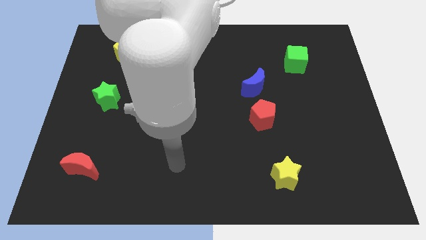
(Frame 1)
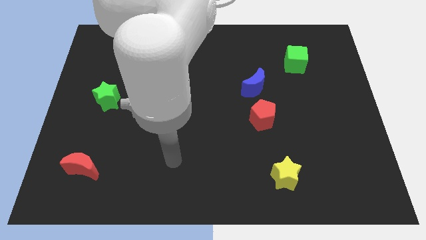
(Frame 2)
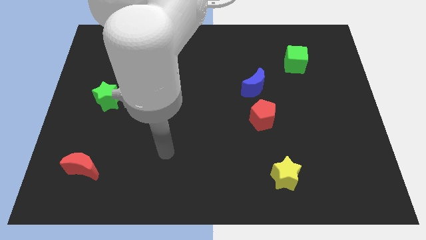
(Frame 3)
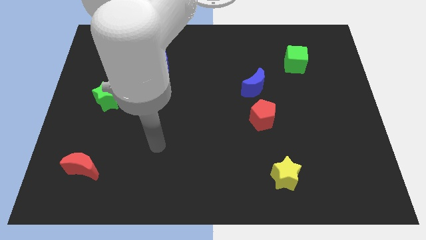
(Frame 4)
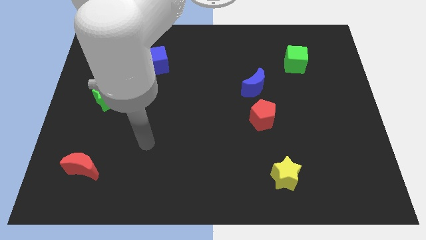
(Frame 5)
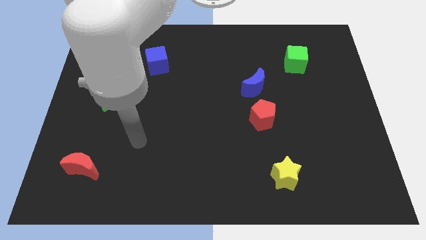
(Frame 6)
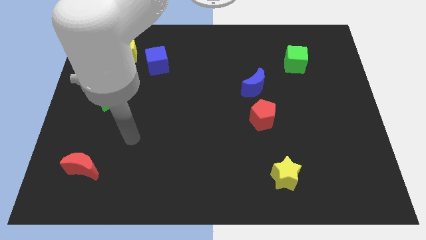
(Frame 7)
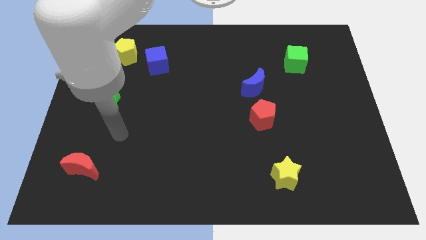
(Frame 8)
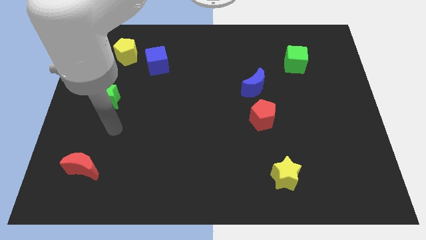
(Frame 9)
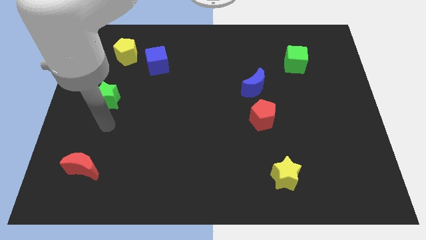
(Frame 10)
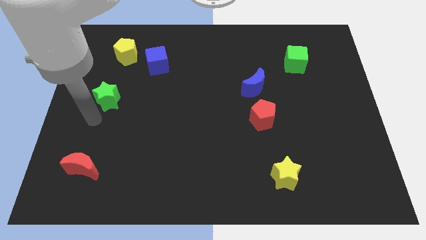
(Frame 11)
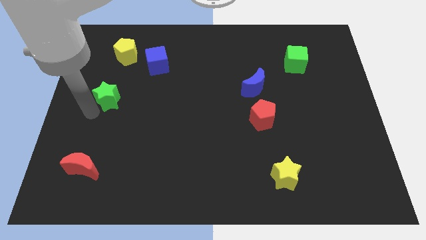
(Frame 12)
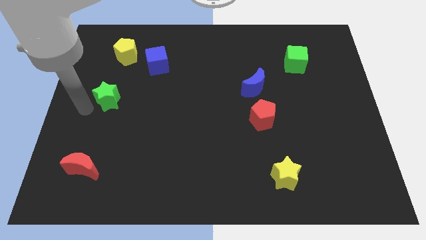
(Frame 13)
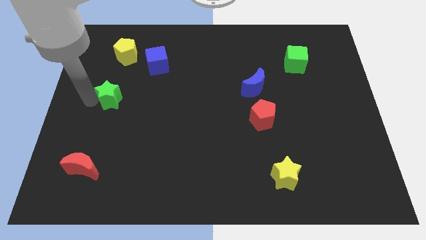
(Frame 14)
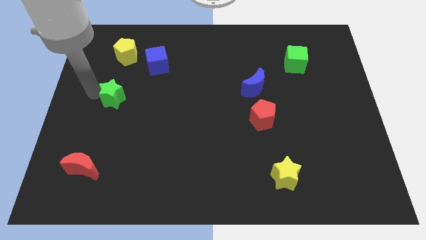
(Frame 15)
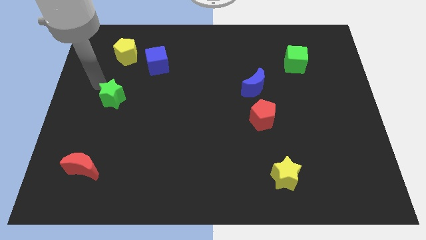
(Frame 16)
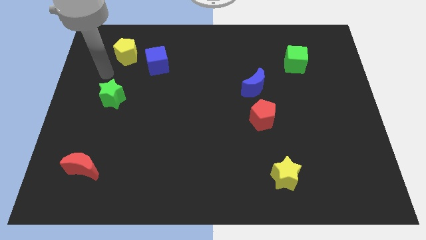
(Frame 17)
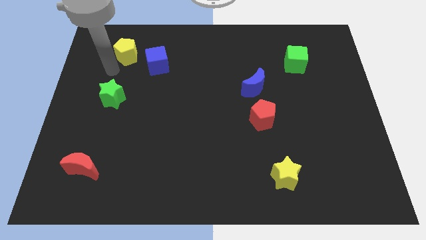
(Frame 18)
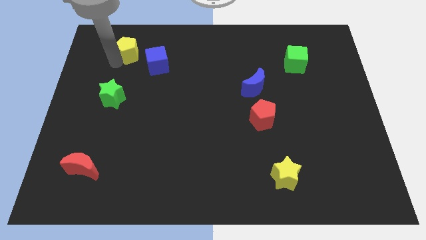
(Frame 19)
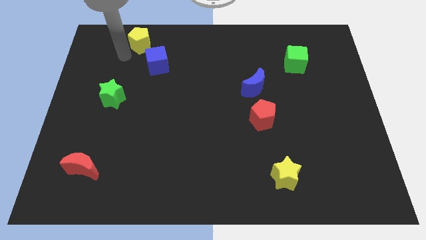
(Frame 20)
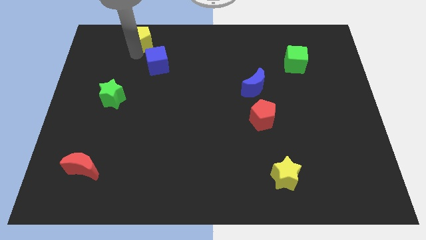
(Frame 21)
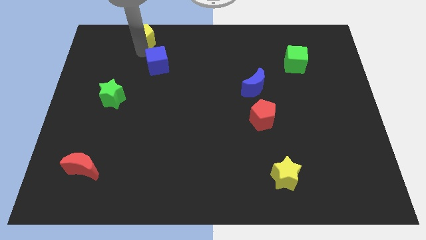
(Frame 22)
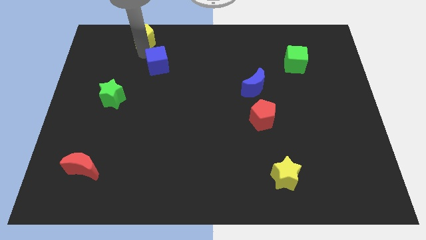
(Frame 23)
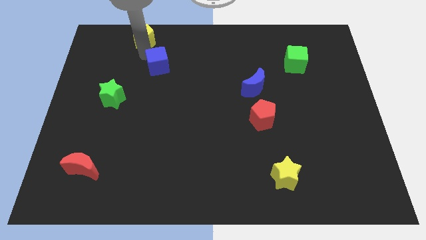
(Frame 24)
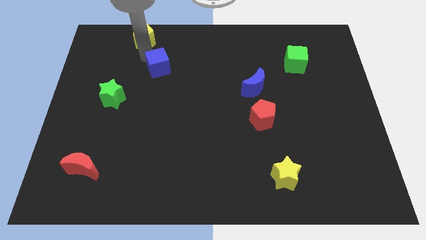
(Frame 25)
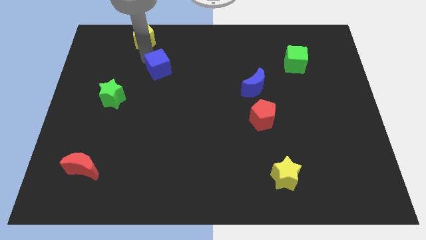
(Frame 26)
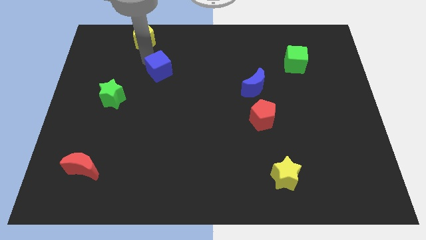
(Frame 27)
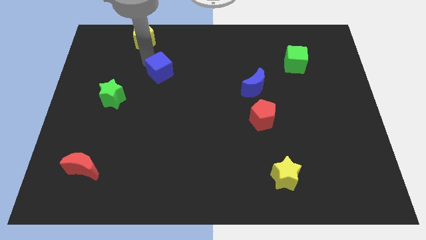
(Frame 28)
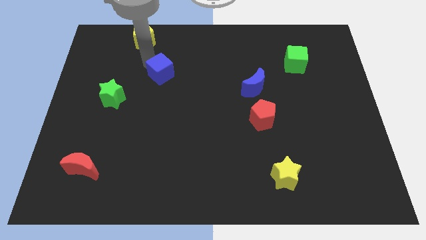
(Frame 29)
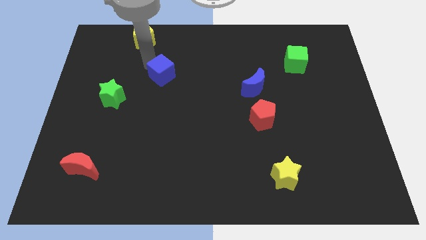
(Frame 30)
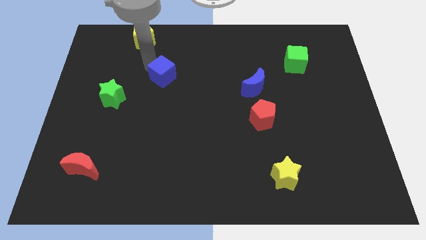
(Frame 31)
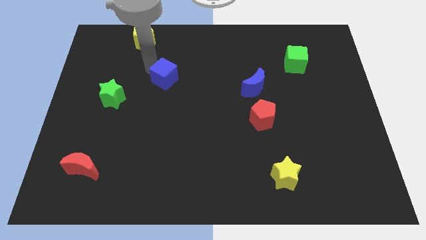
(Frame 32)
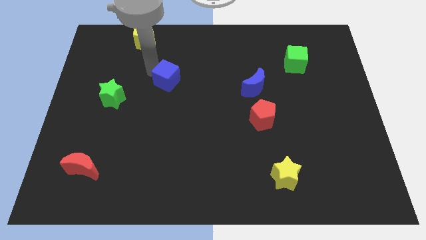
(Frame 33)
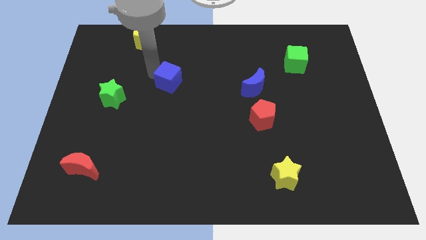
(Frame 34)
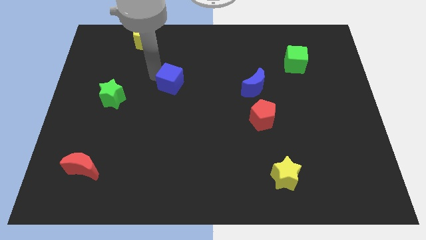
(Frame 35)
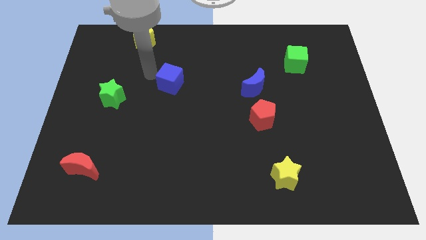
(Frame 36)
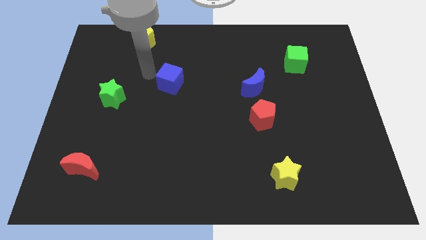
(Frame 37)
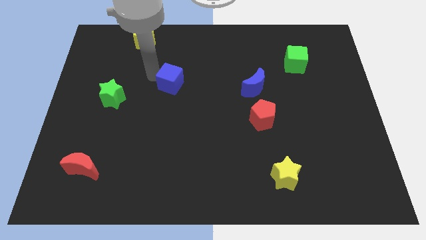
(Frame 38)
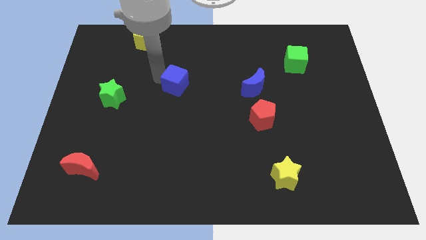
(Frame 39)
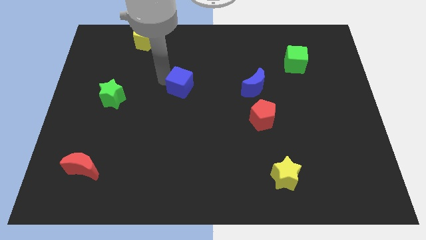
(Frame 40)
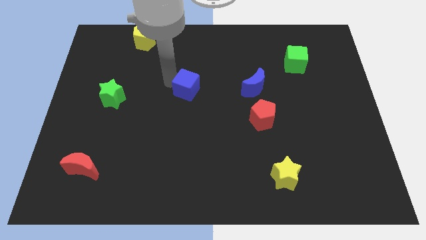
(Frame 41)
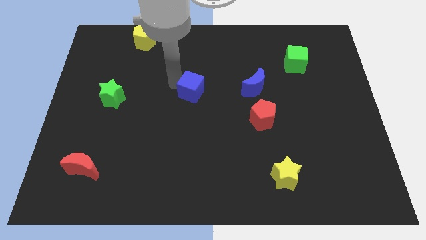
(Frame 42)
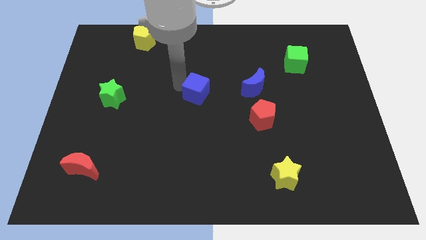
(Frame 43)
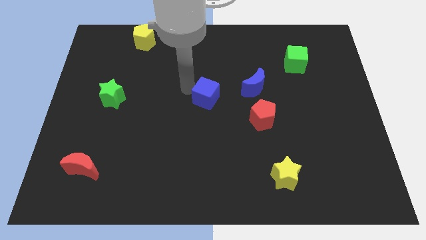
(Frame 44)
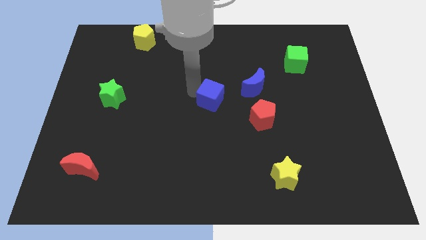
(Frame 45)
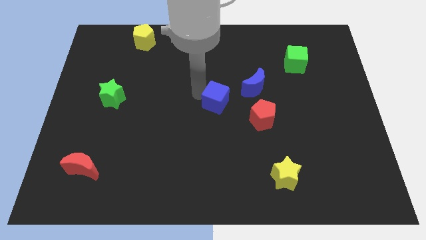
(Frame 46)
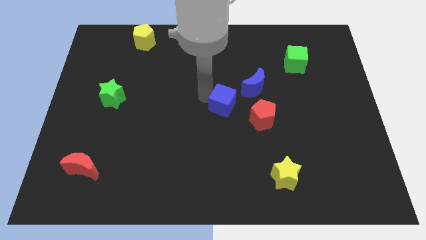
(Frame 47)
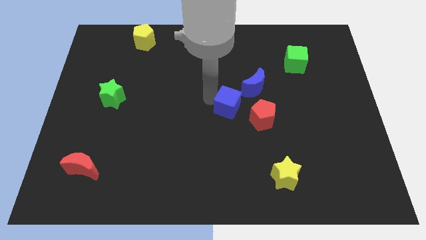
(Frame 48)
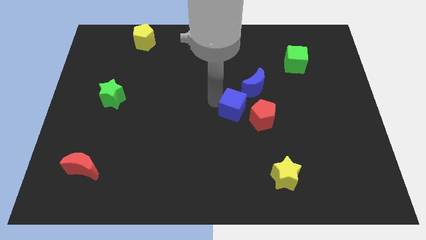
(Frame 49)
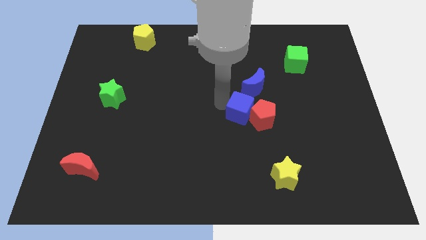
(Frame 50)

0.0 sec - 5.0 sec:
push the blue cube next to the red pentagon

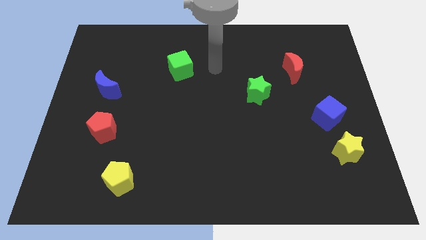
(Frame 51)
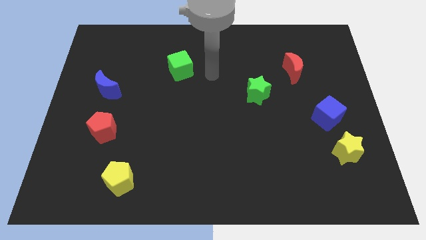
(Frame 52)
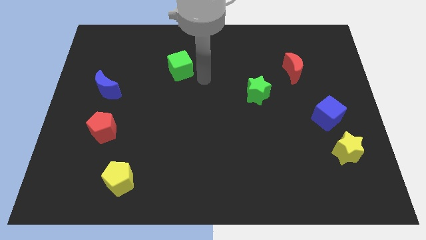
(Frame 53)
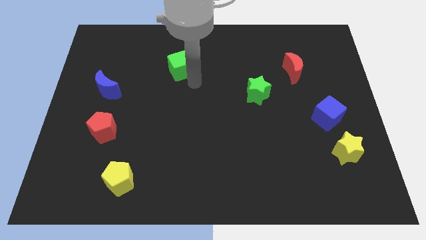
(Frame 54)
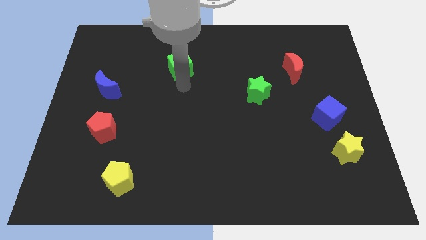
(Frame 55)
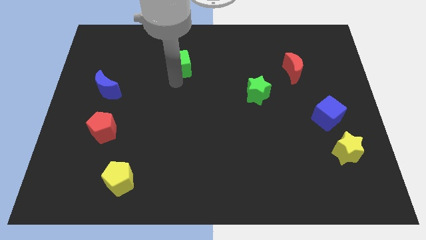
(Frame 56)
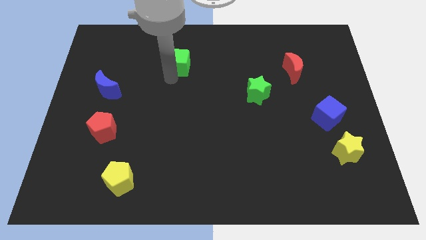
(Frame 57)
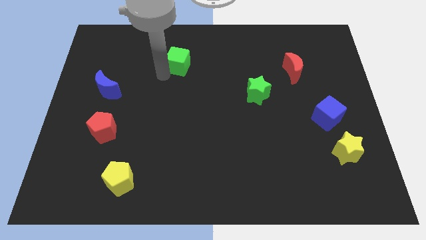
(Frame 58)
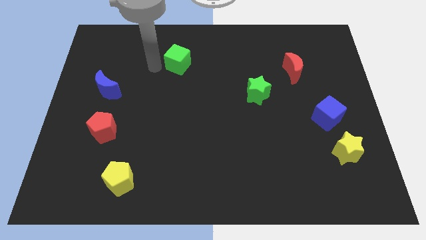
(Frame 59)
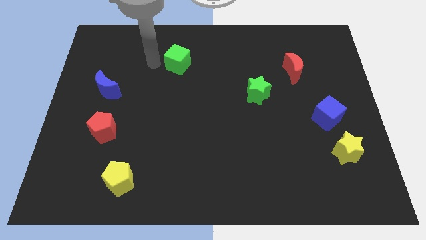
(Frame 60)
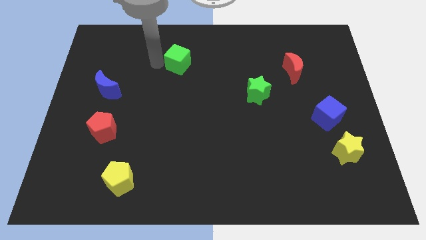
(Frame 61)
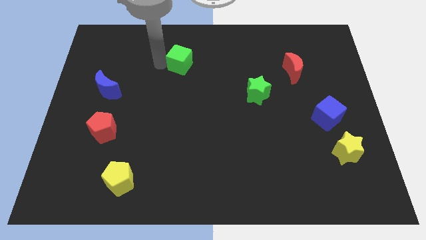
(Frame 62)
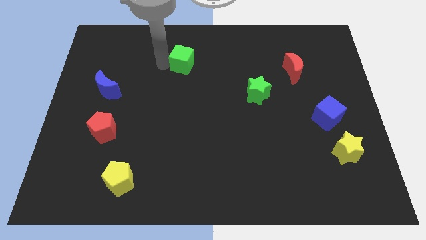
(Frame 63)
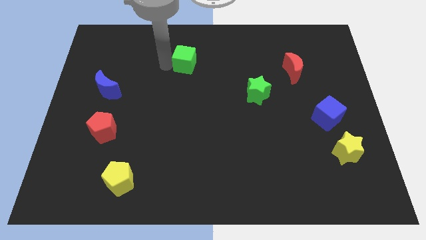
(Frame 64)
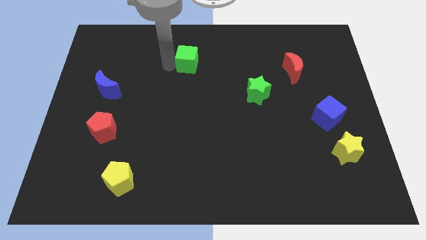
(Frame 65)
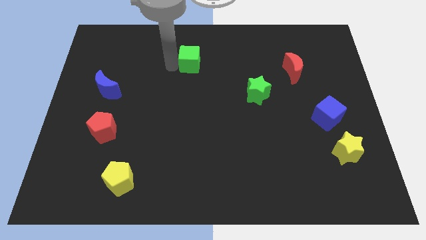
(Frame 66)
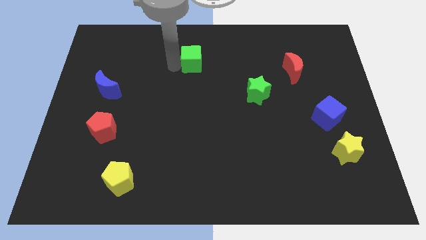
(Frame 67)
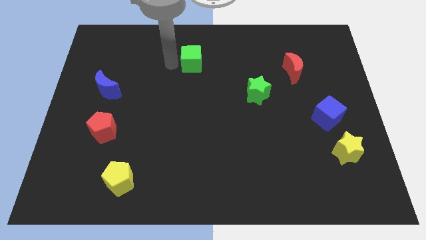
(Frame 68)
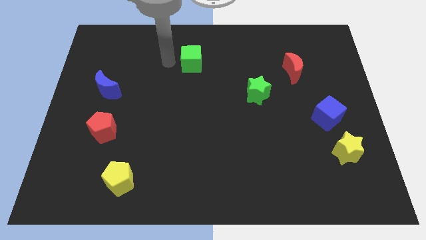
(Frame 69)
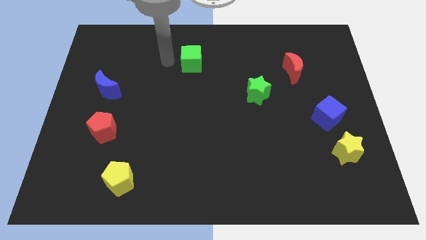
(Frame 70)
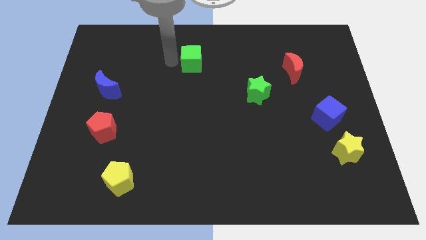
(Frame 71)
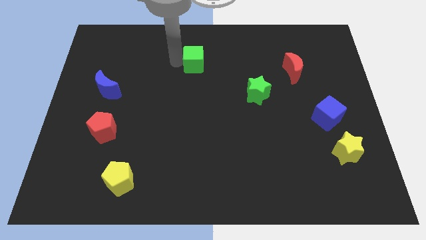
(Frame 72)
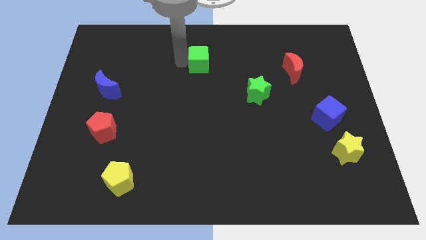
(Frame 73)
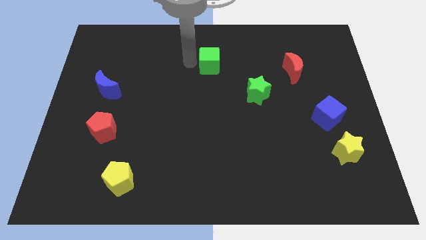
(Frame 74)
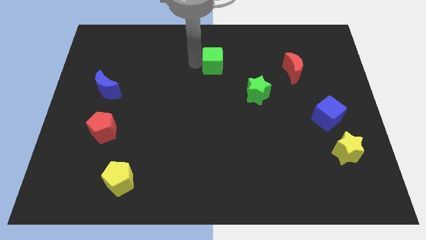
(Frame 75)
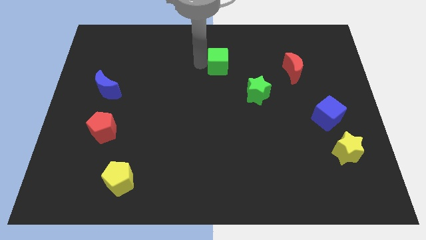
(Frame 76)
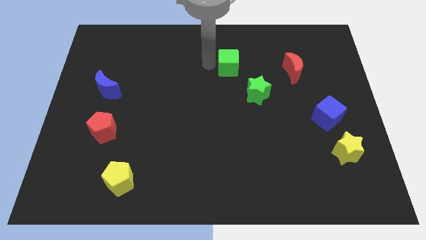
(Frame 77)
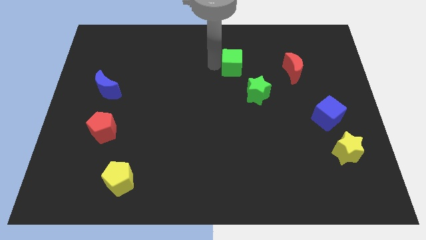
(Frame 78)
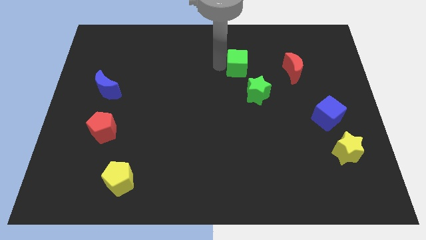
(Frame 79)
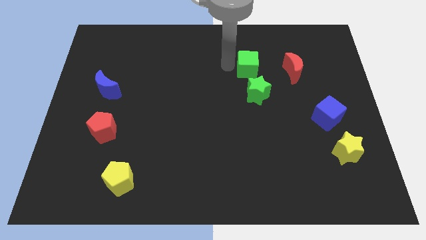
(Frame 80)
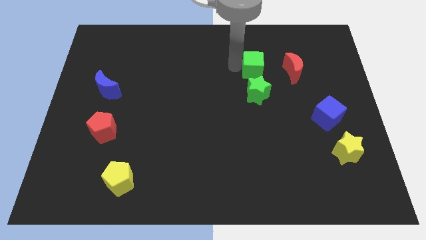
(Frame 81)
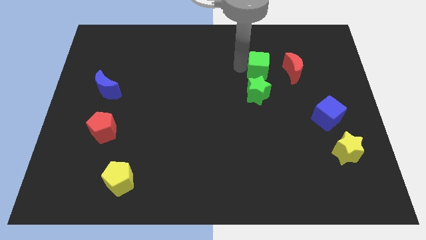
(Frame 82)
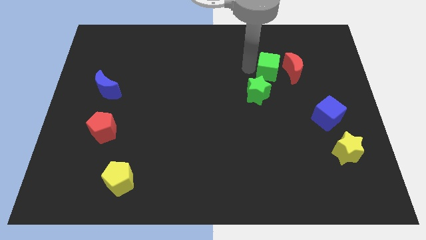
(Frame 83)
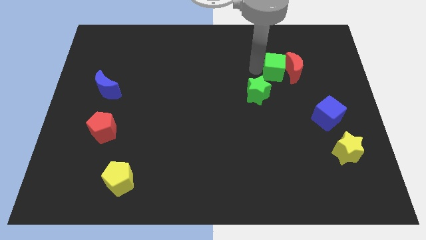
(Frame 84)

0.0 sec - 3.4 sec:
move the green cube next to the red moon
